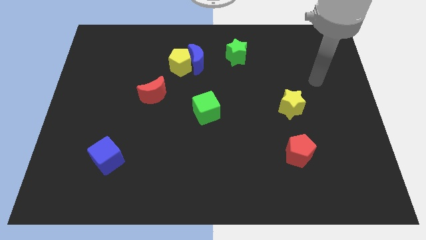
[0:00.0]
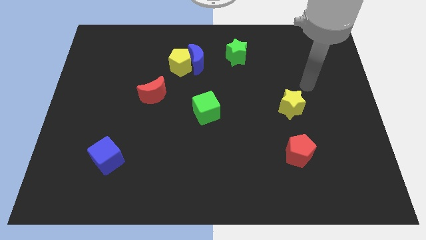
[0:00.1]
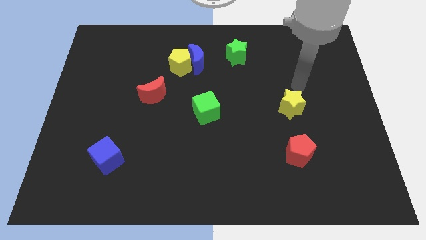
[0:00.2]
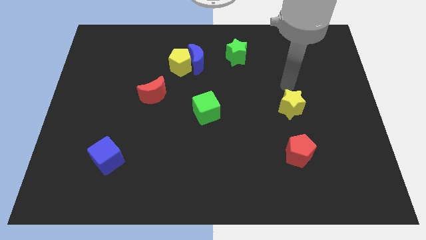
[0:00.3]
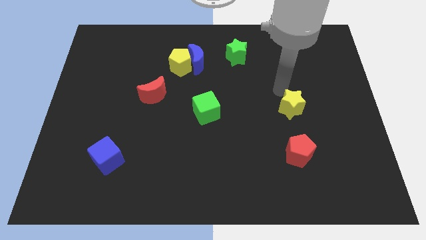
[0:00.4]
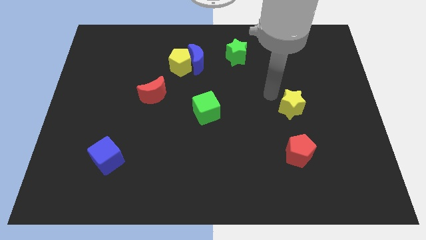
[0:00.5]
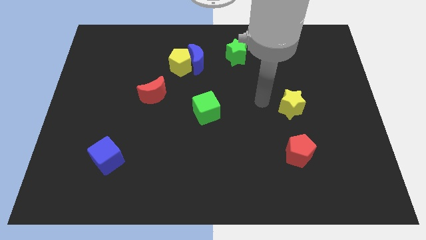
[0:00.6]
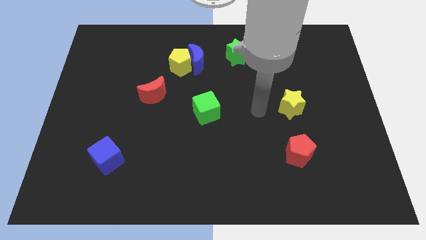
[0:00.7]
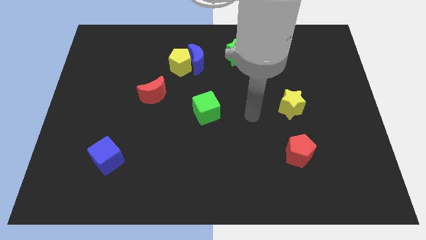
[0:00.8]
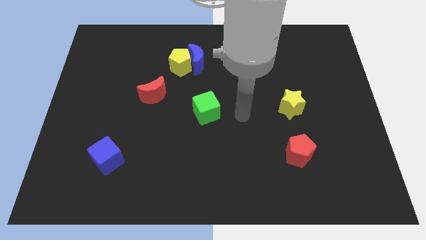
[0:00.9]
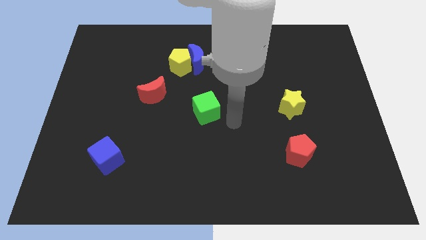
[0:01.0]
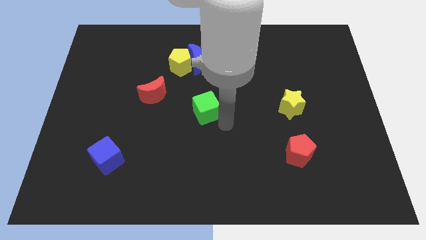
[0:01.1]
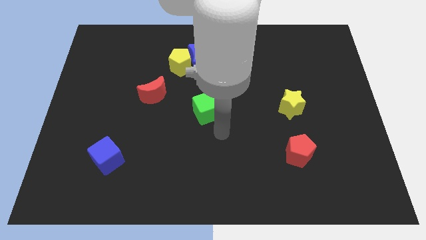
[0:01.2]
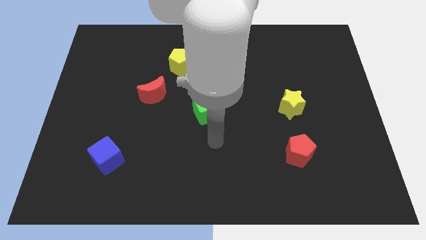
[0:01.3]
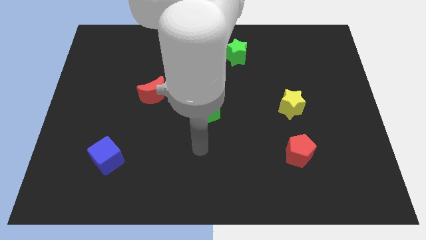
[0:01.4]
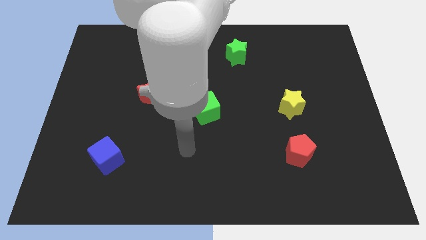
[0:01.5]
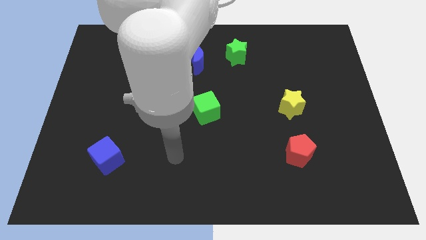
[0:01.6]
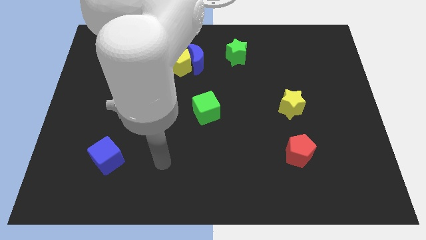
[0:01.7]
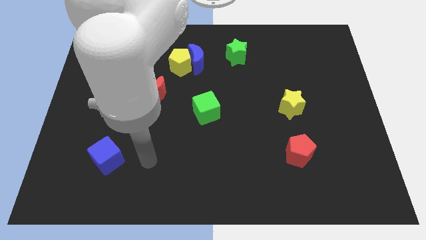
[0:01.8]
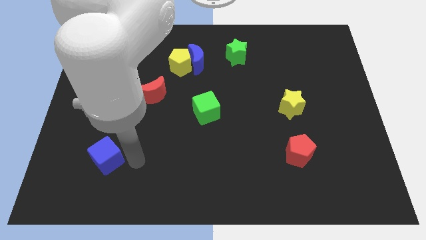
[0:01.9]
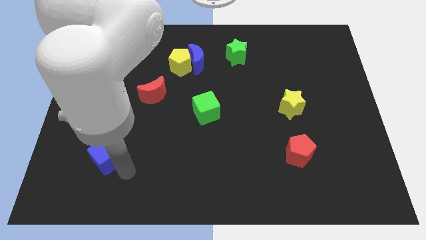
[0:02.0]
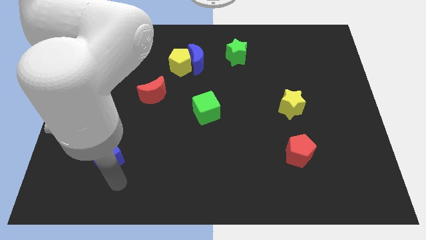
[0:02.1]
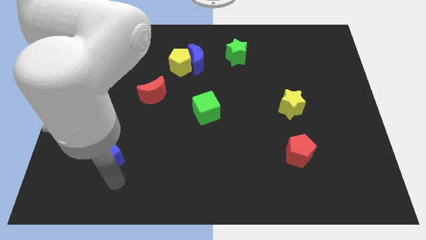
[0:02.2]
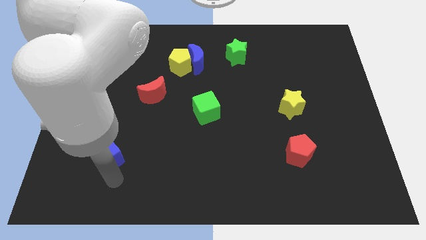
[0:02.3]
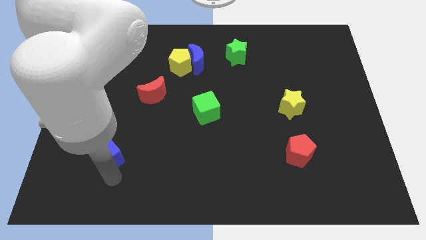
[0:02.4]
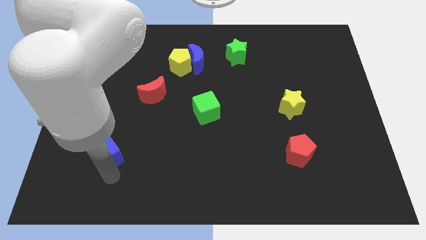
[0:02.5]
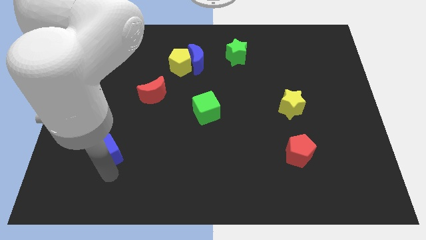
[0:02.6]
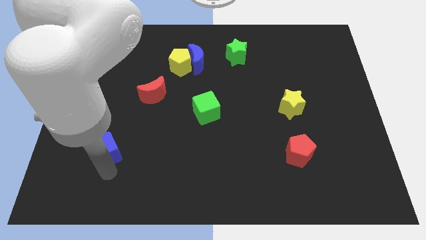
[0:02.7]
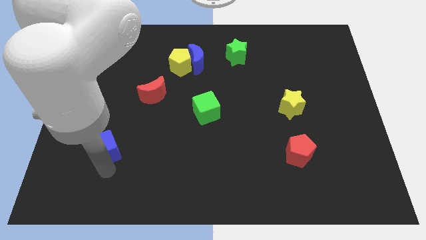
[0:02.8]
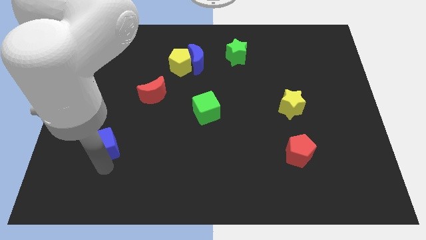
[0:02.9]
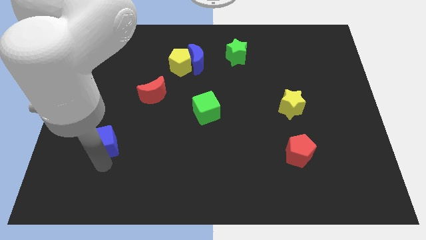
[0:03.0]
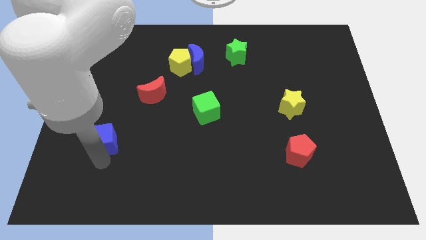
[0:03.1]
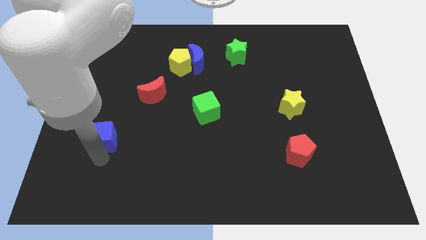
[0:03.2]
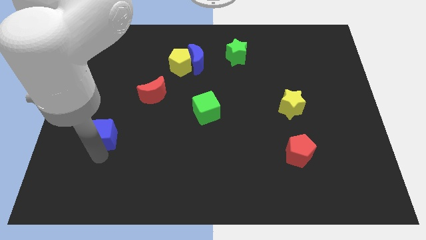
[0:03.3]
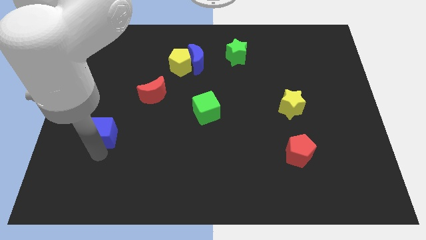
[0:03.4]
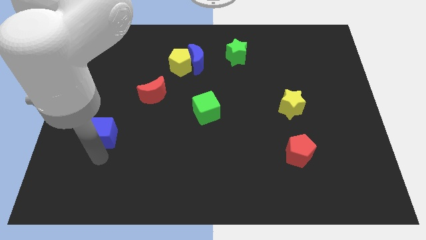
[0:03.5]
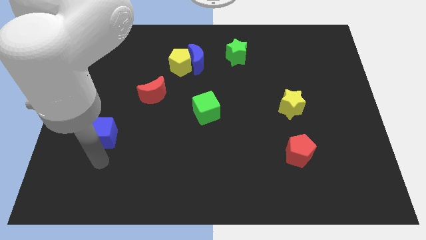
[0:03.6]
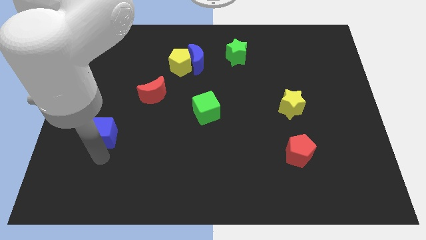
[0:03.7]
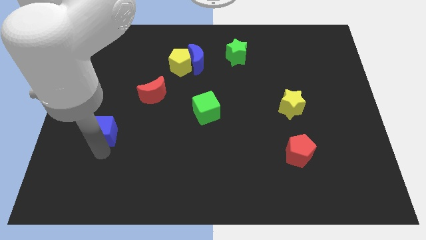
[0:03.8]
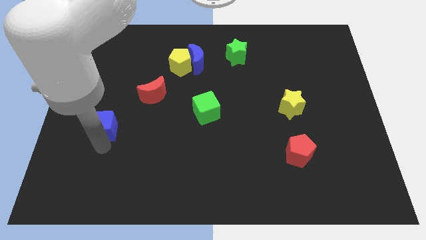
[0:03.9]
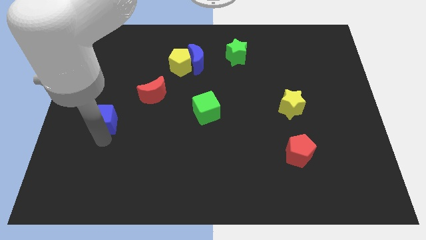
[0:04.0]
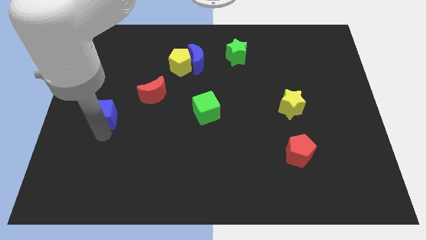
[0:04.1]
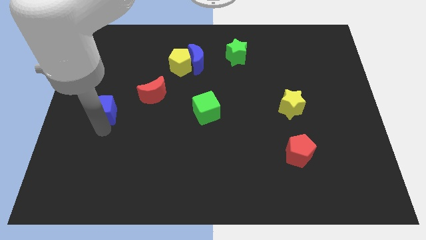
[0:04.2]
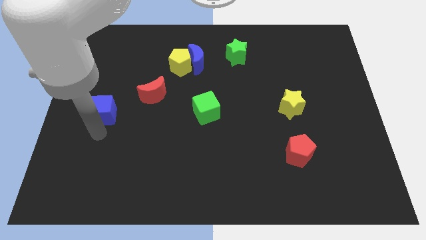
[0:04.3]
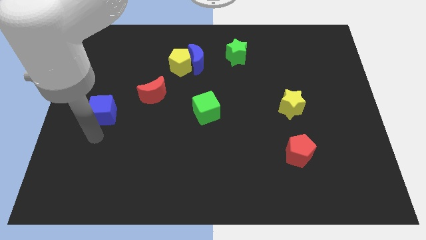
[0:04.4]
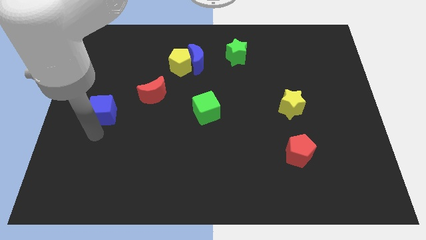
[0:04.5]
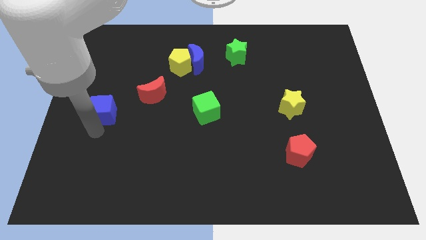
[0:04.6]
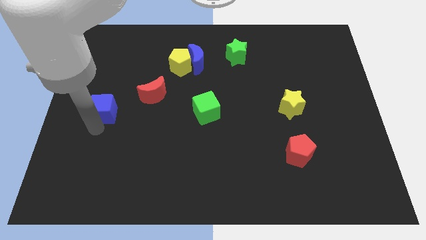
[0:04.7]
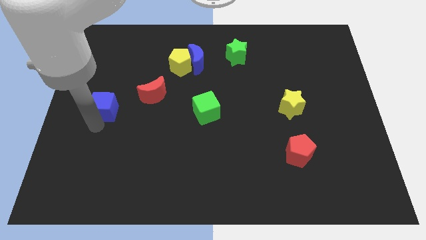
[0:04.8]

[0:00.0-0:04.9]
slide the blue cube just left of the red moon

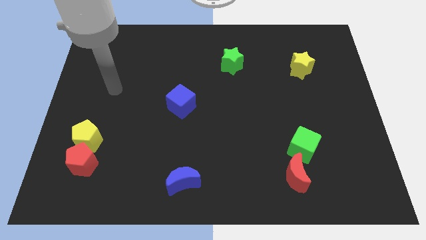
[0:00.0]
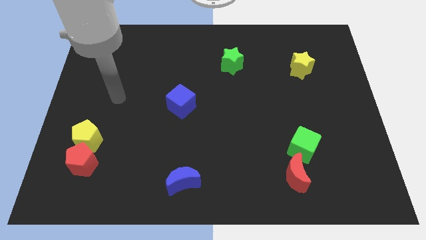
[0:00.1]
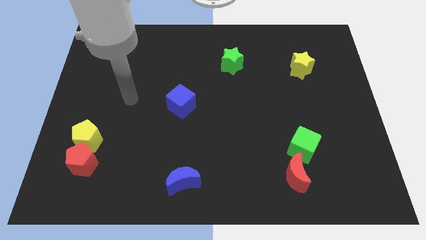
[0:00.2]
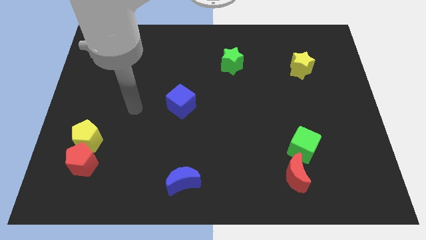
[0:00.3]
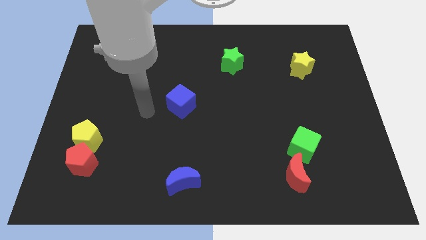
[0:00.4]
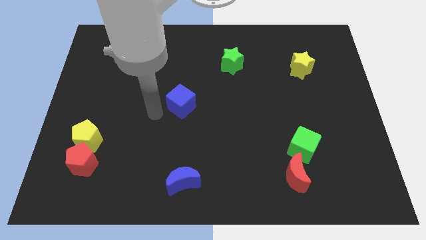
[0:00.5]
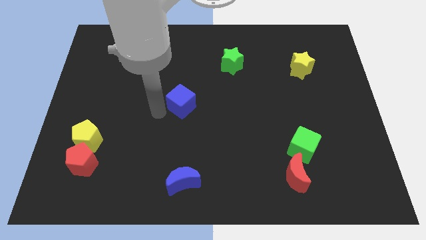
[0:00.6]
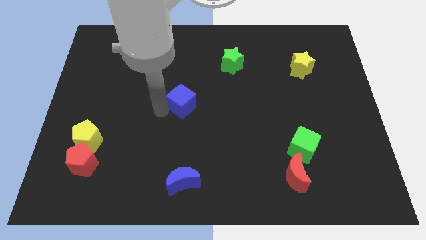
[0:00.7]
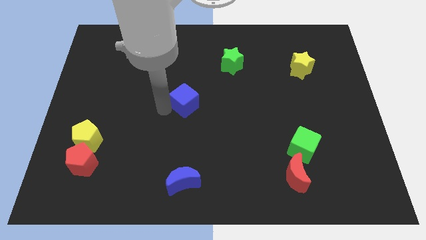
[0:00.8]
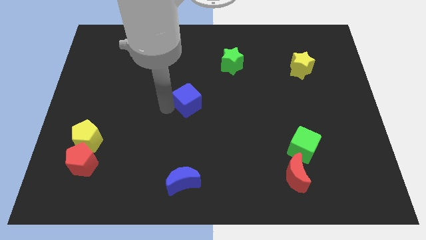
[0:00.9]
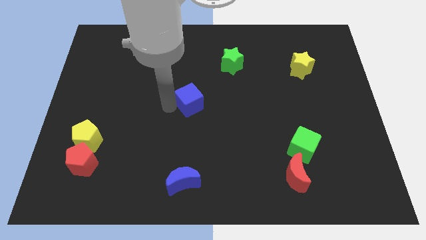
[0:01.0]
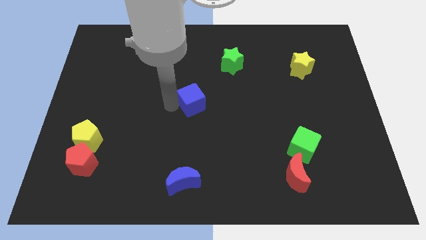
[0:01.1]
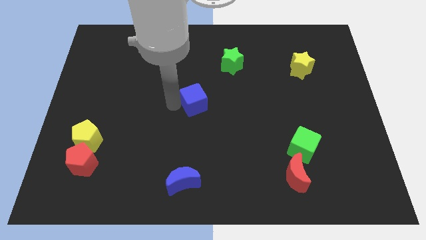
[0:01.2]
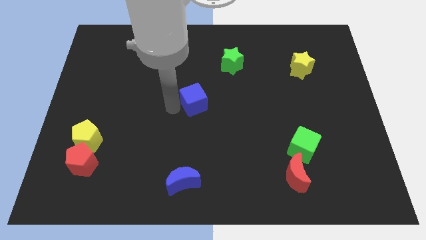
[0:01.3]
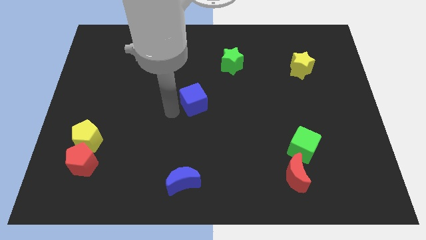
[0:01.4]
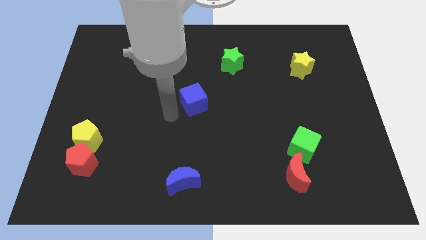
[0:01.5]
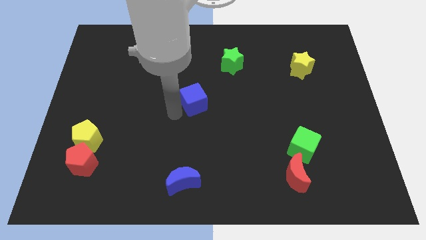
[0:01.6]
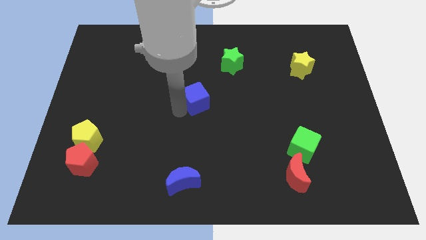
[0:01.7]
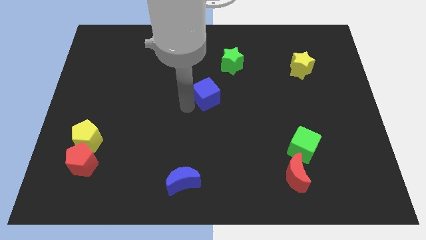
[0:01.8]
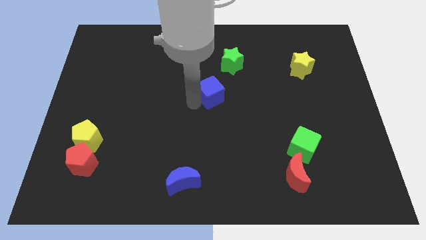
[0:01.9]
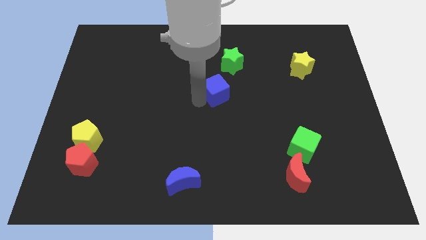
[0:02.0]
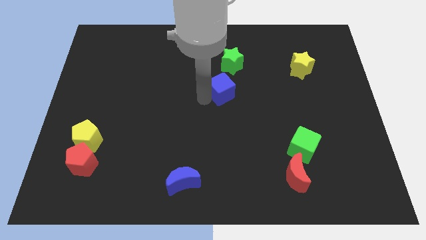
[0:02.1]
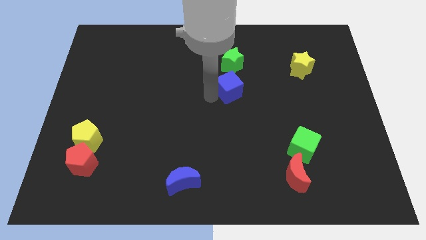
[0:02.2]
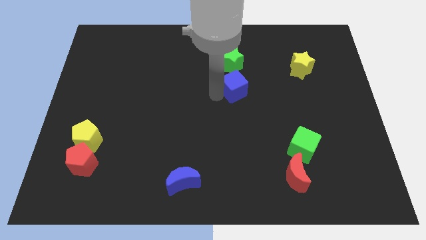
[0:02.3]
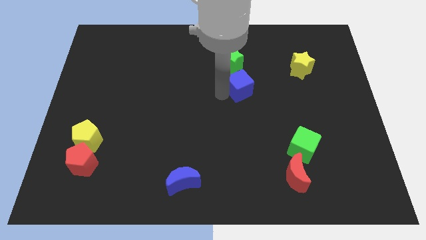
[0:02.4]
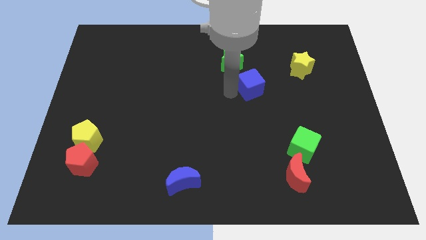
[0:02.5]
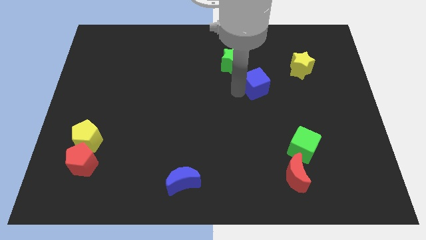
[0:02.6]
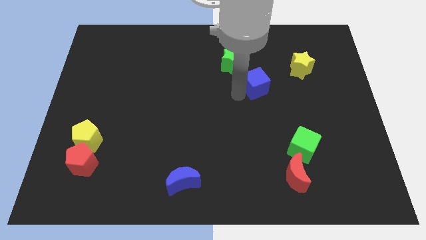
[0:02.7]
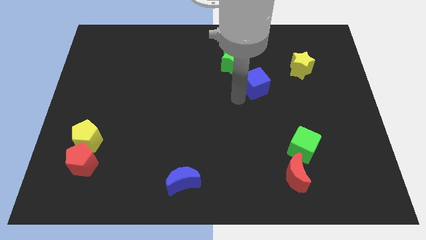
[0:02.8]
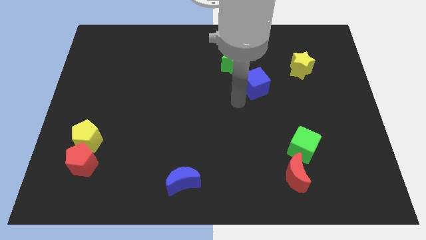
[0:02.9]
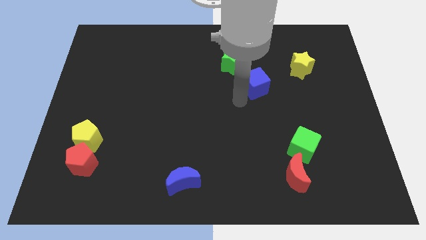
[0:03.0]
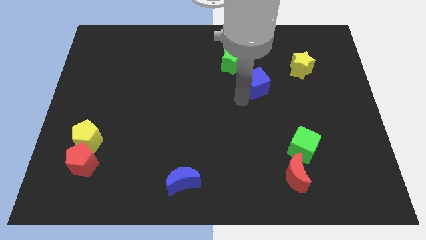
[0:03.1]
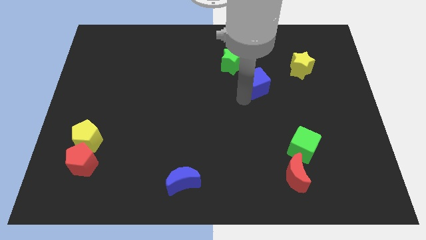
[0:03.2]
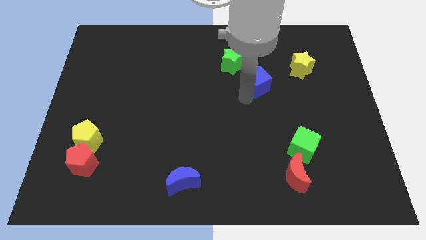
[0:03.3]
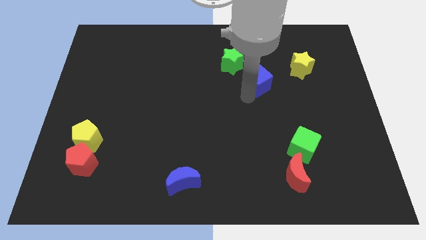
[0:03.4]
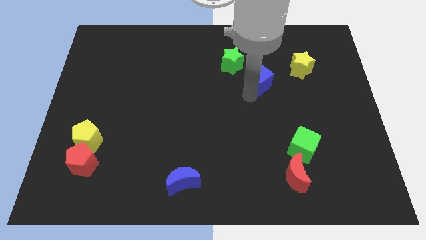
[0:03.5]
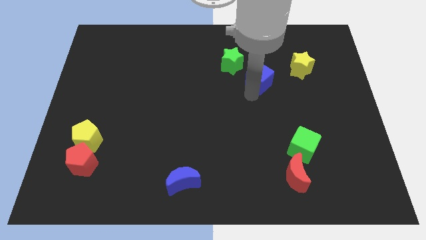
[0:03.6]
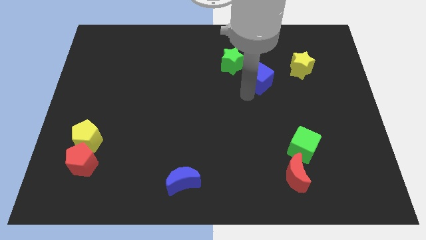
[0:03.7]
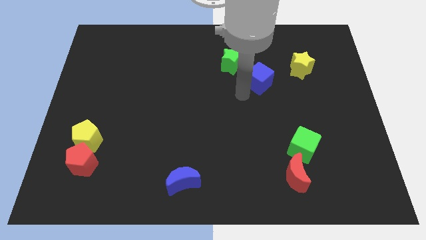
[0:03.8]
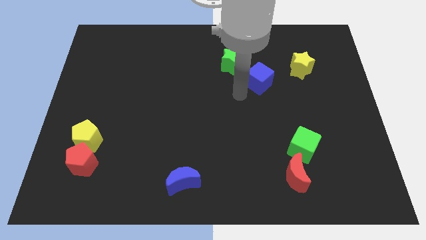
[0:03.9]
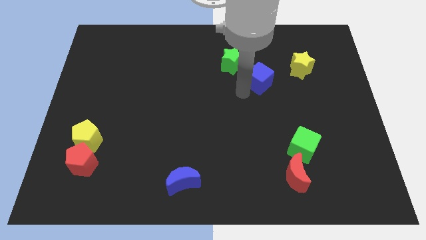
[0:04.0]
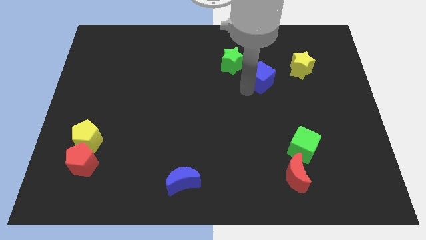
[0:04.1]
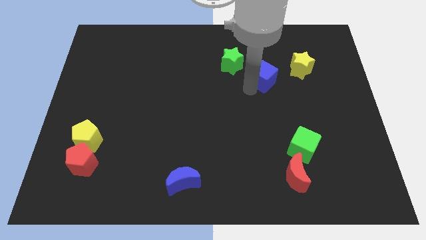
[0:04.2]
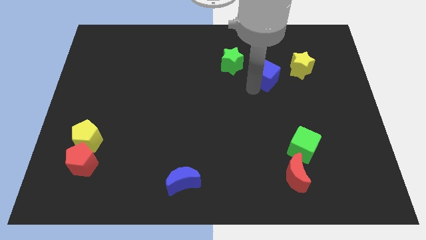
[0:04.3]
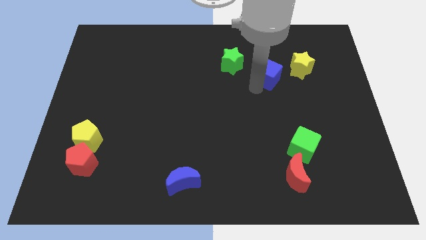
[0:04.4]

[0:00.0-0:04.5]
move the blue cube right of the green star
